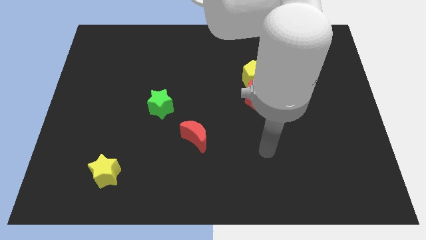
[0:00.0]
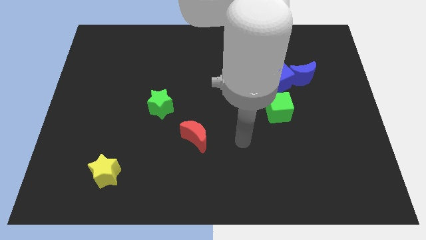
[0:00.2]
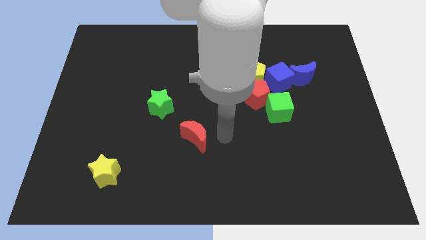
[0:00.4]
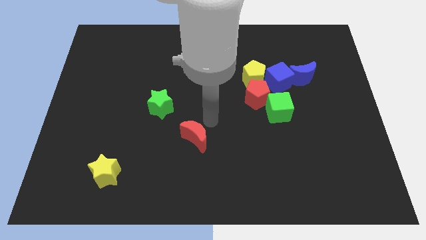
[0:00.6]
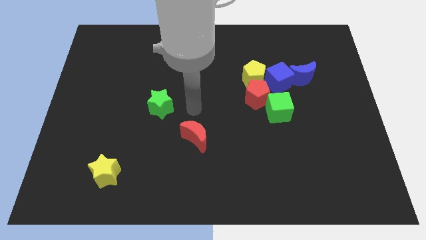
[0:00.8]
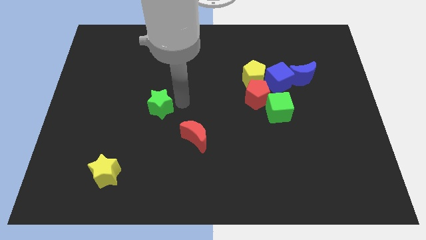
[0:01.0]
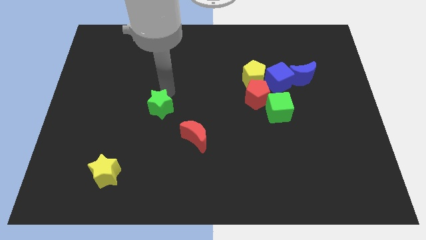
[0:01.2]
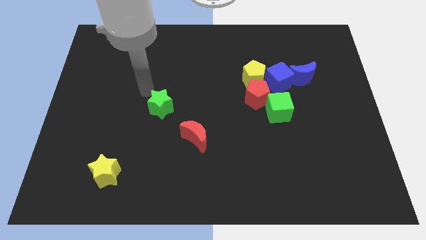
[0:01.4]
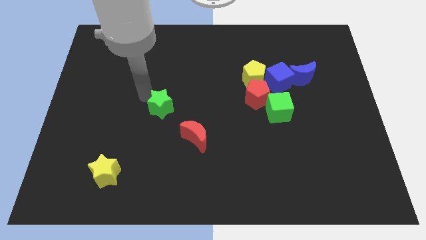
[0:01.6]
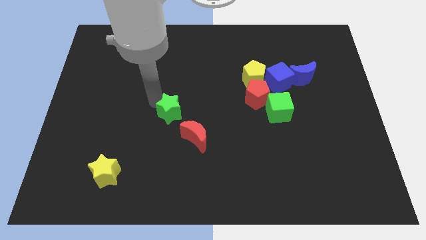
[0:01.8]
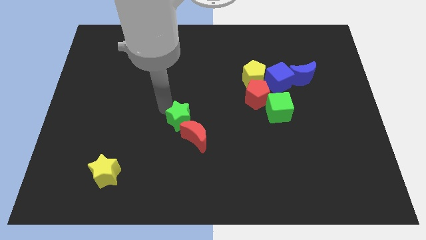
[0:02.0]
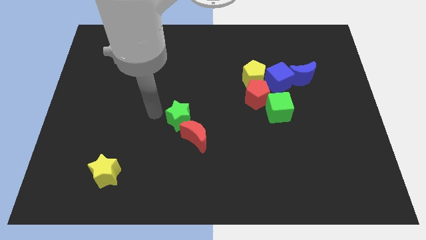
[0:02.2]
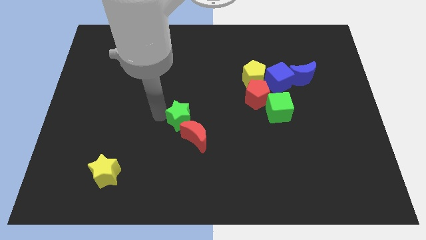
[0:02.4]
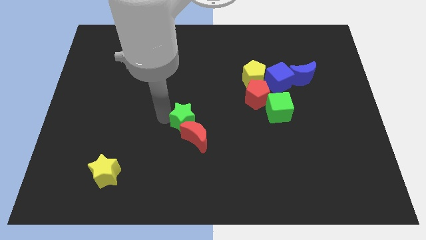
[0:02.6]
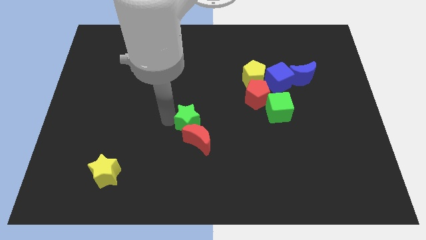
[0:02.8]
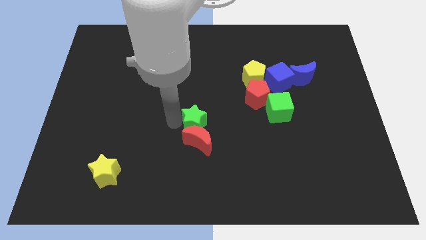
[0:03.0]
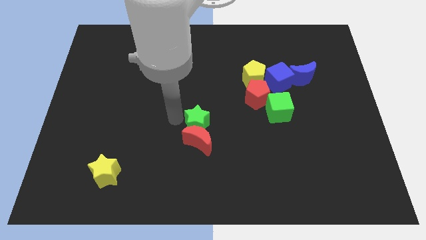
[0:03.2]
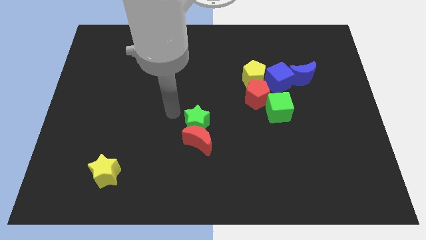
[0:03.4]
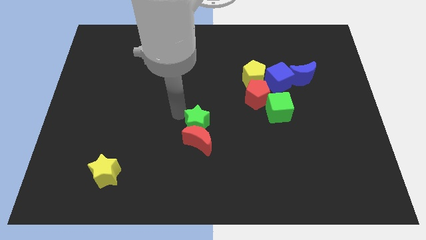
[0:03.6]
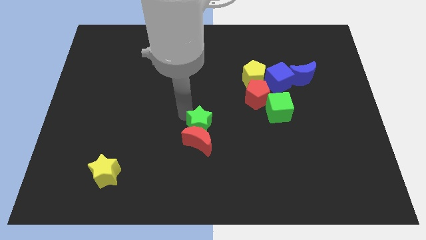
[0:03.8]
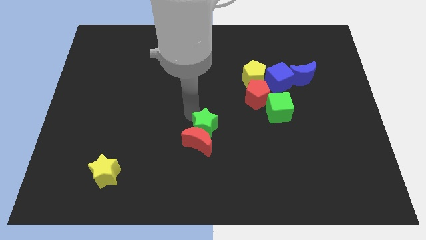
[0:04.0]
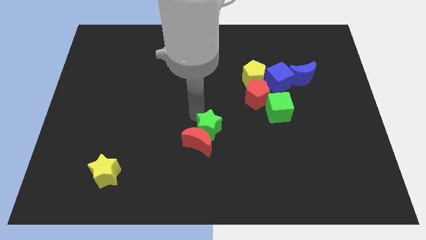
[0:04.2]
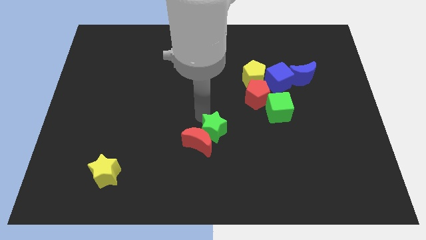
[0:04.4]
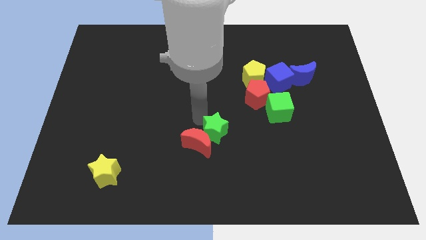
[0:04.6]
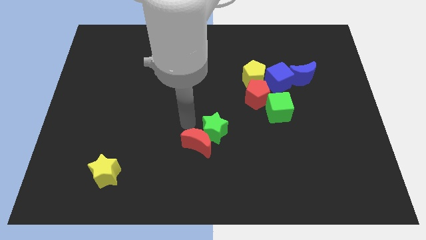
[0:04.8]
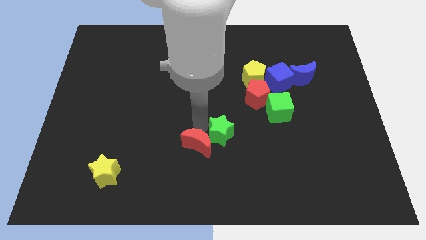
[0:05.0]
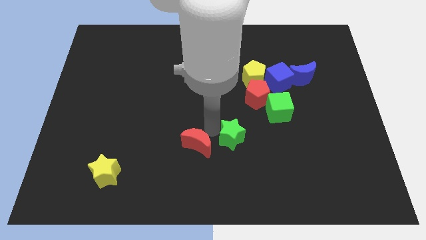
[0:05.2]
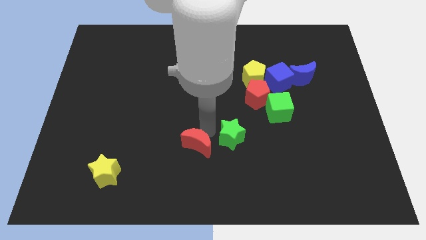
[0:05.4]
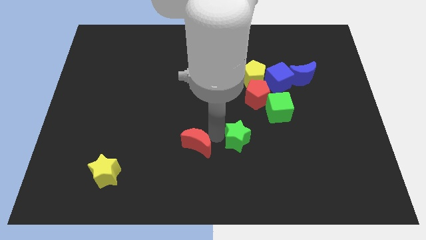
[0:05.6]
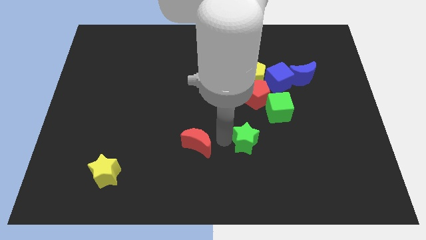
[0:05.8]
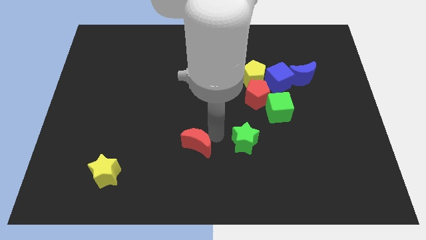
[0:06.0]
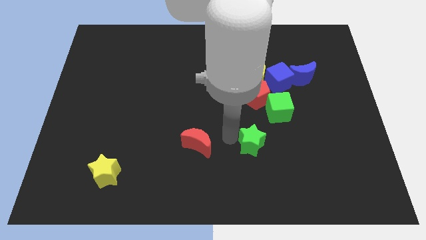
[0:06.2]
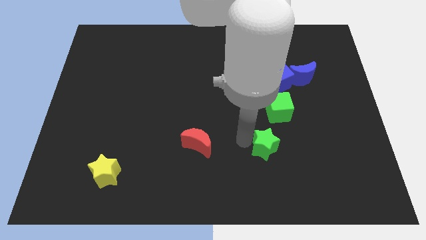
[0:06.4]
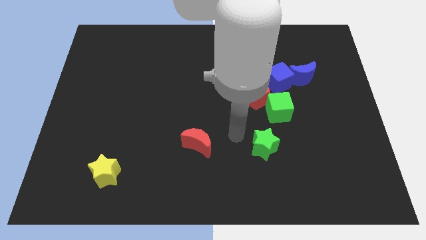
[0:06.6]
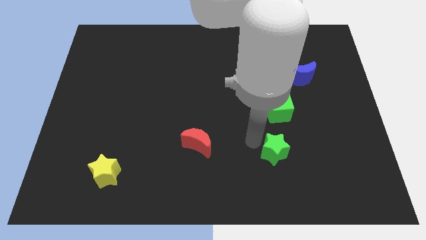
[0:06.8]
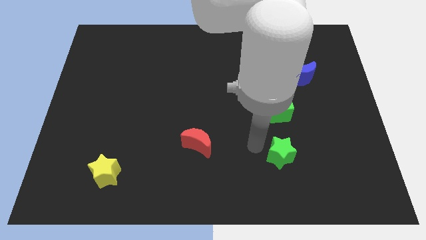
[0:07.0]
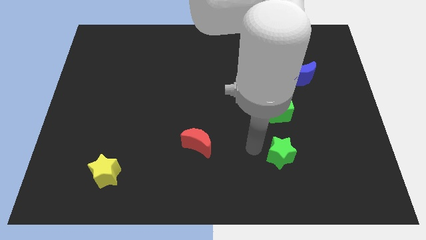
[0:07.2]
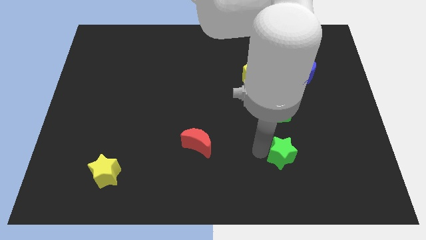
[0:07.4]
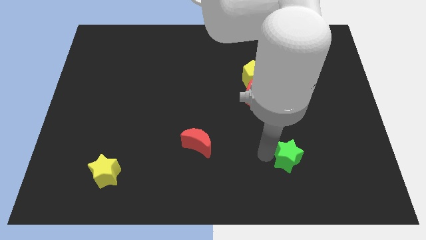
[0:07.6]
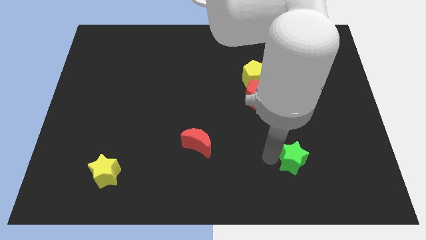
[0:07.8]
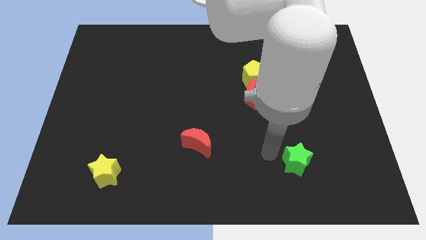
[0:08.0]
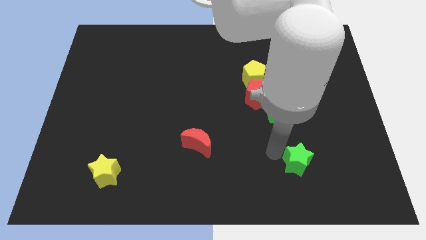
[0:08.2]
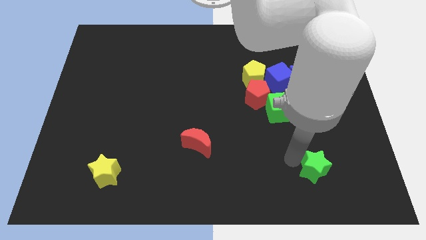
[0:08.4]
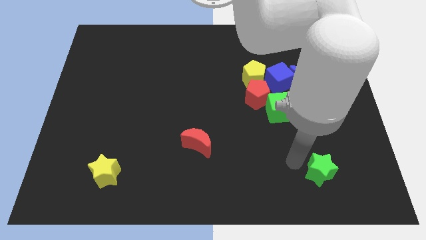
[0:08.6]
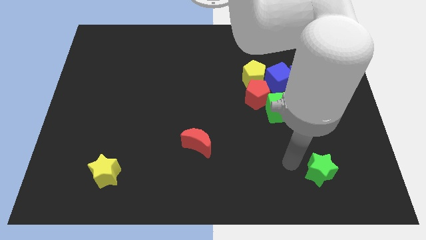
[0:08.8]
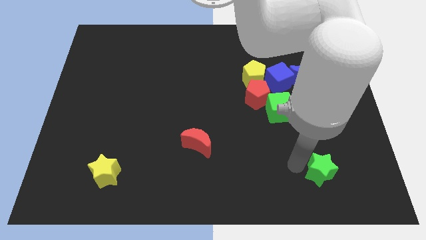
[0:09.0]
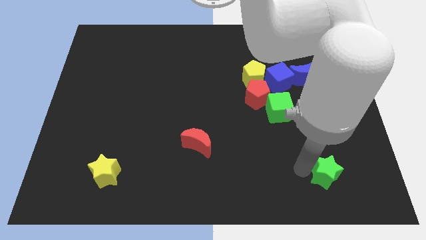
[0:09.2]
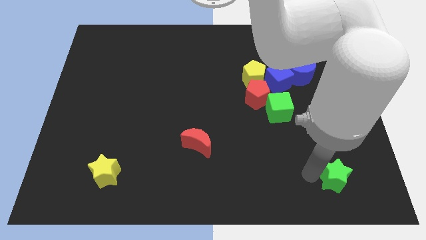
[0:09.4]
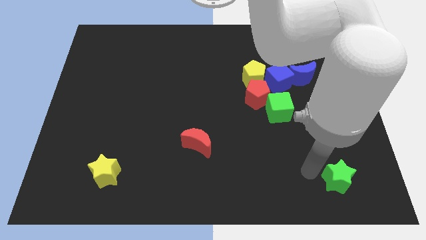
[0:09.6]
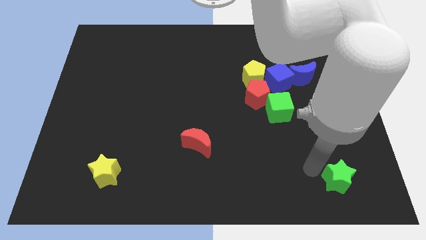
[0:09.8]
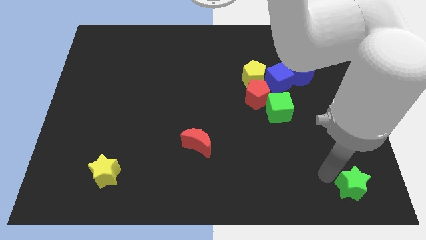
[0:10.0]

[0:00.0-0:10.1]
move the green star to the bottom right

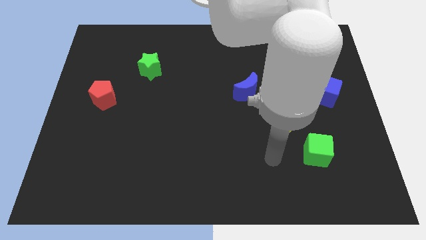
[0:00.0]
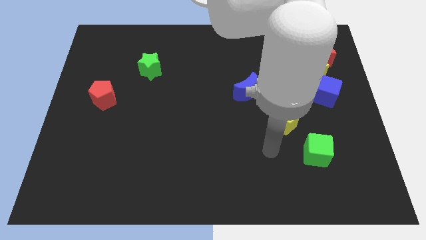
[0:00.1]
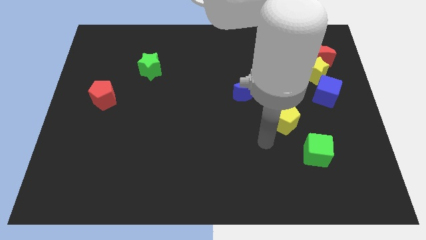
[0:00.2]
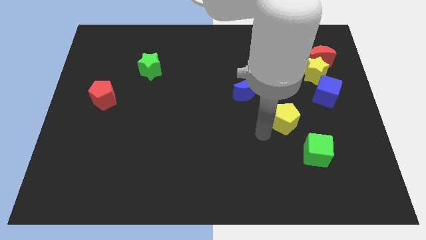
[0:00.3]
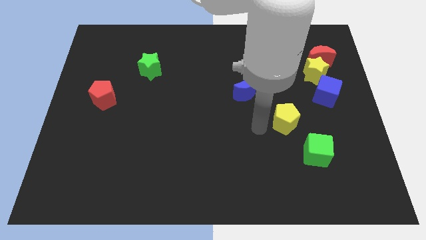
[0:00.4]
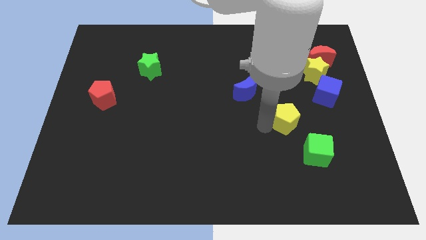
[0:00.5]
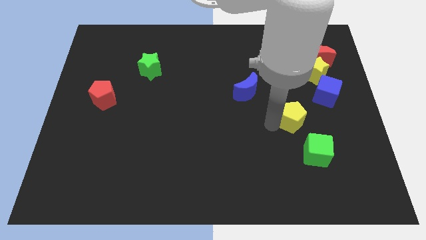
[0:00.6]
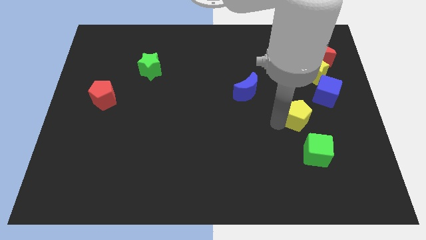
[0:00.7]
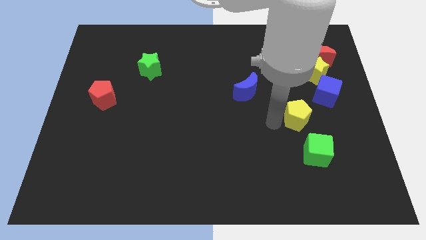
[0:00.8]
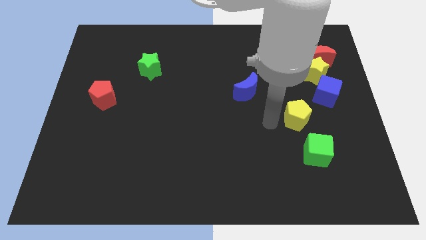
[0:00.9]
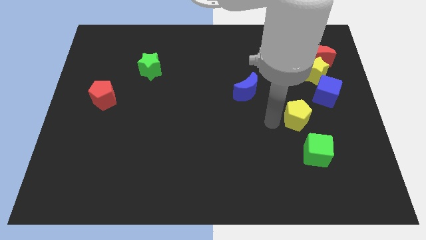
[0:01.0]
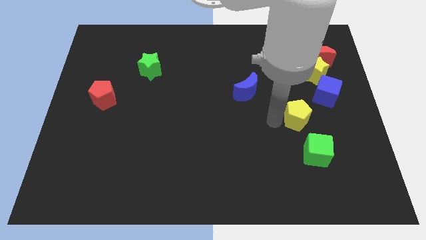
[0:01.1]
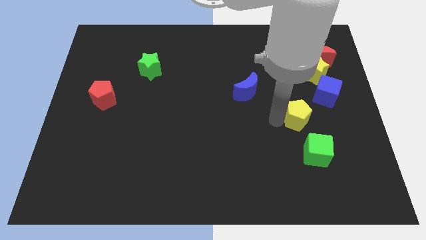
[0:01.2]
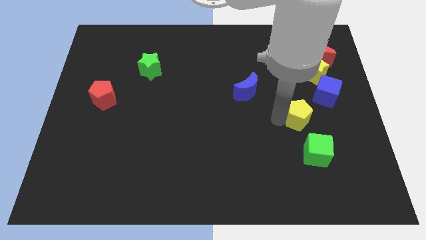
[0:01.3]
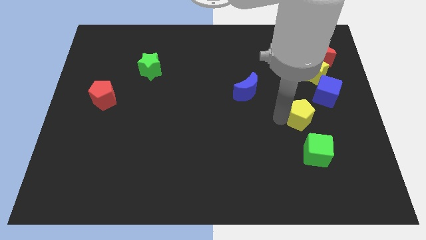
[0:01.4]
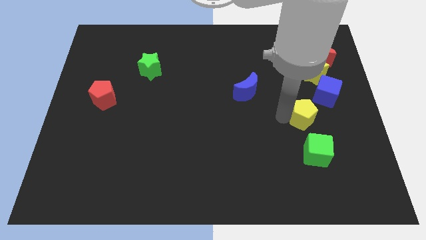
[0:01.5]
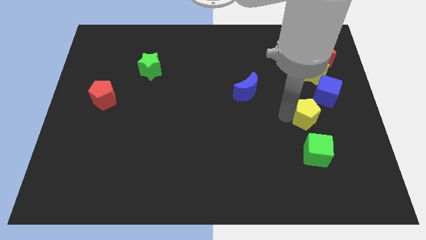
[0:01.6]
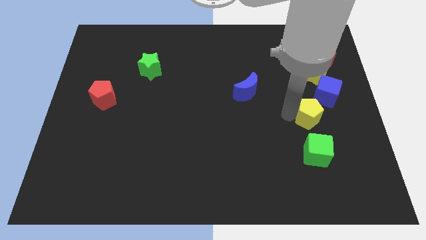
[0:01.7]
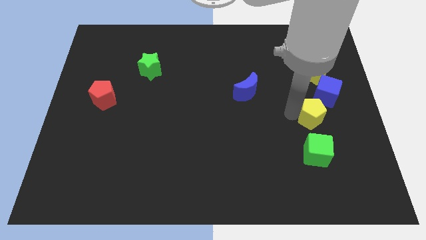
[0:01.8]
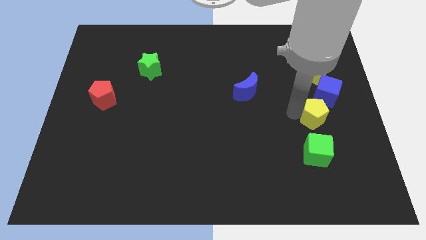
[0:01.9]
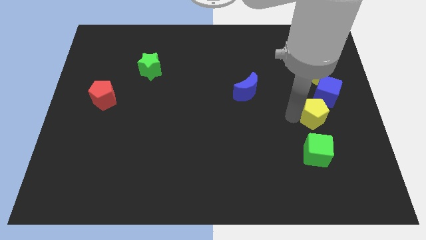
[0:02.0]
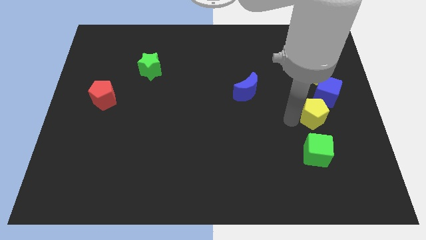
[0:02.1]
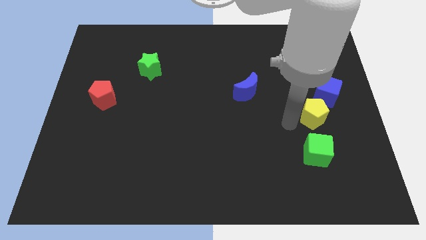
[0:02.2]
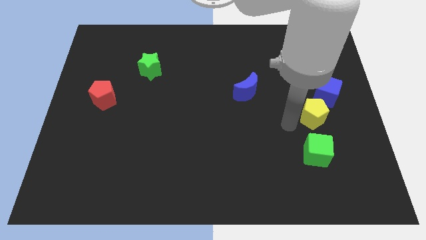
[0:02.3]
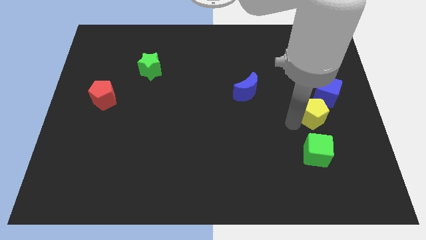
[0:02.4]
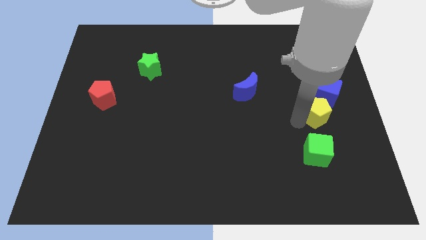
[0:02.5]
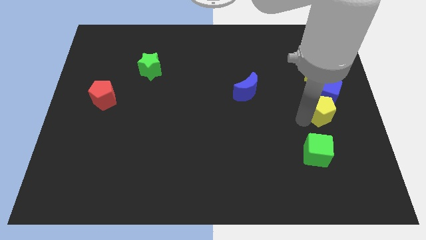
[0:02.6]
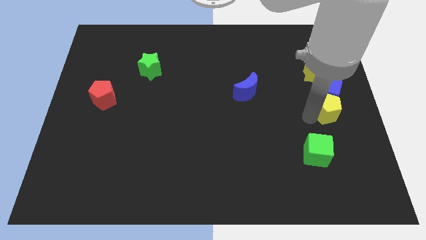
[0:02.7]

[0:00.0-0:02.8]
put the yellow pentagon to the right side
